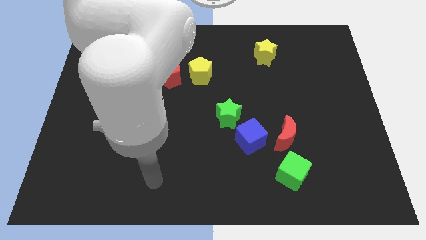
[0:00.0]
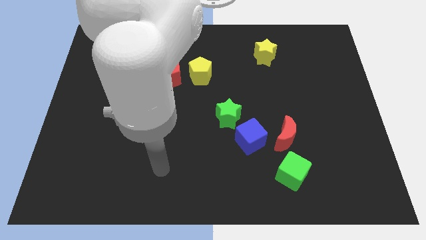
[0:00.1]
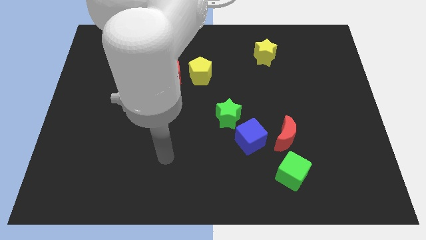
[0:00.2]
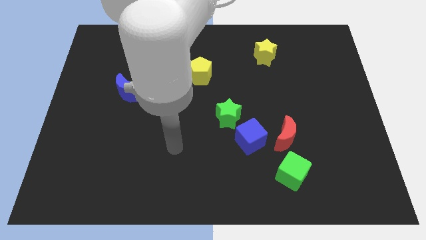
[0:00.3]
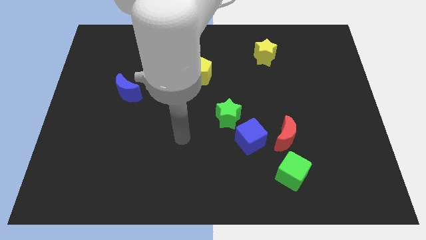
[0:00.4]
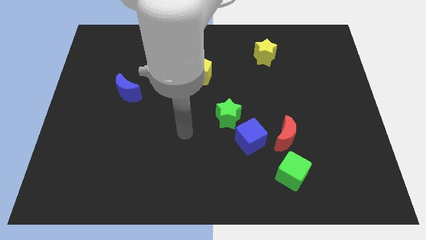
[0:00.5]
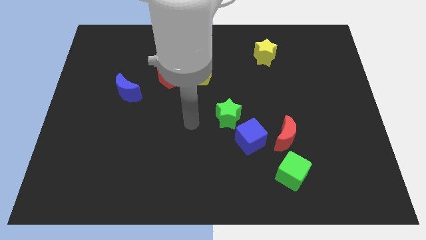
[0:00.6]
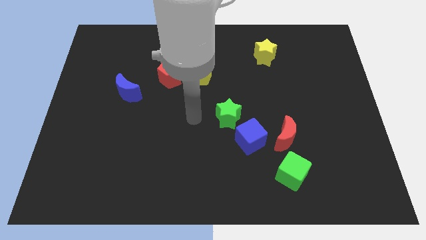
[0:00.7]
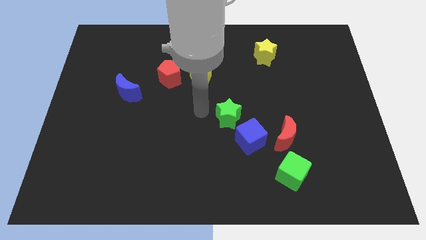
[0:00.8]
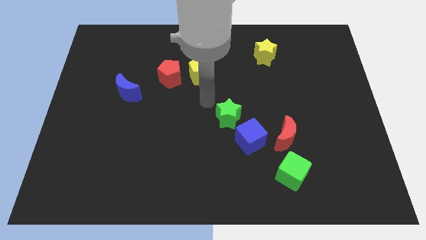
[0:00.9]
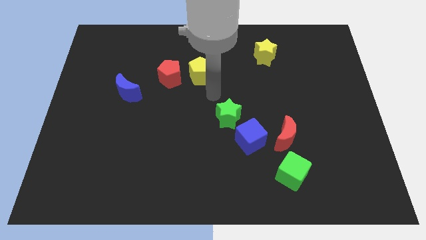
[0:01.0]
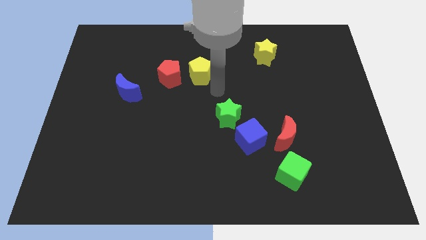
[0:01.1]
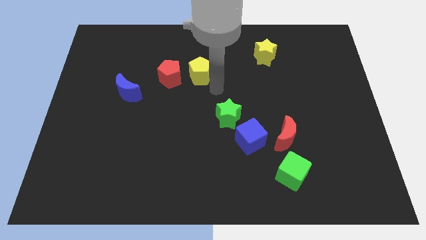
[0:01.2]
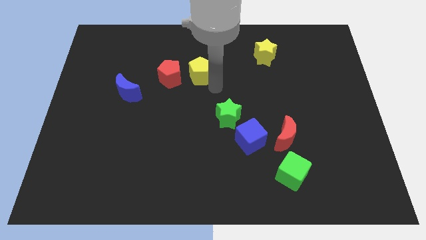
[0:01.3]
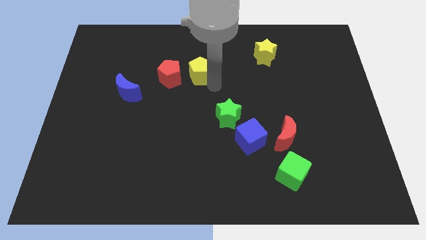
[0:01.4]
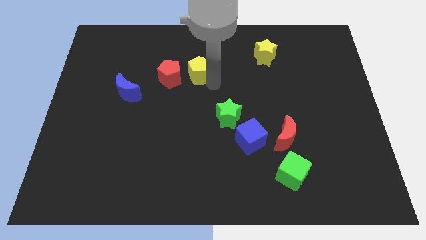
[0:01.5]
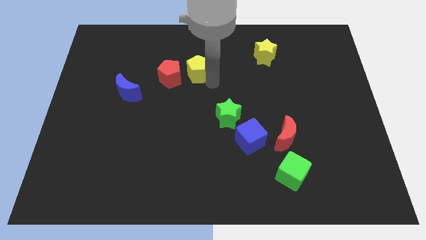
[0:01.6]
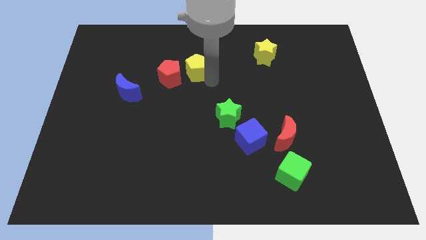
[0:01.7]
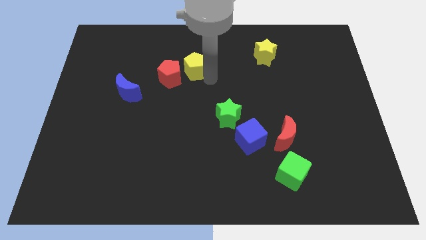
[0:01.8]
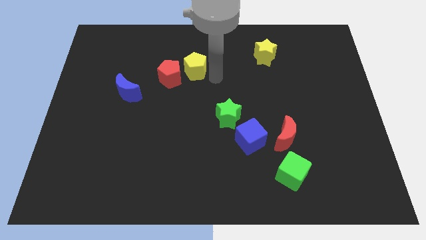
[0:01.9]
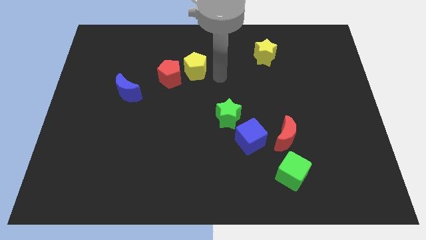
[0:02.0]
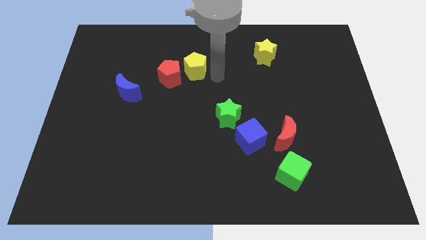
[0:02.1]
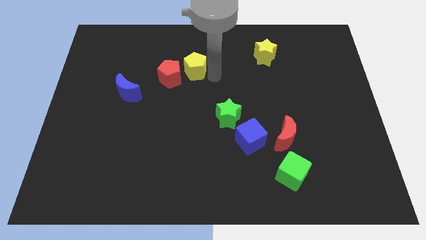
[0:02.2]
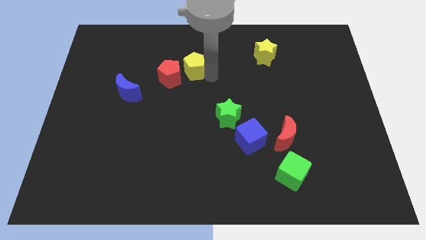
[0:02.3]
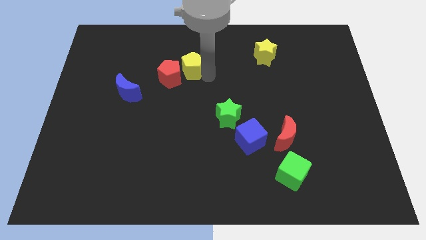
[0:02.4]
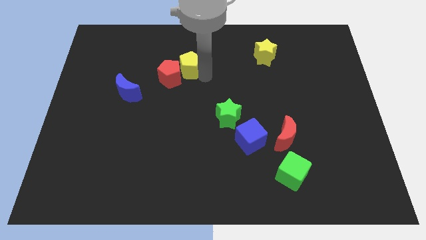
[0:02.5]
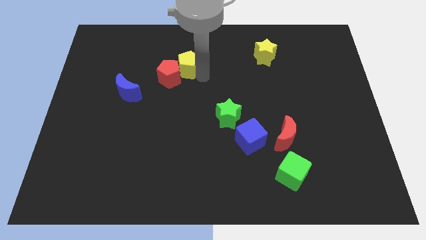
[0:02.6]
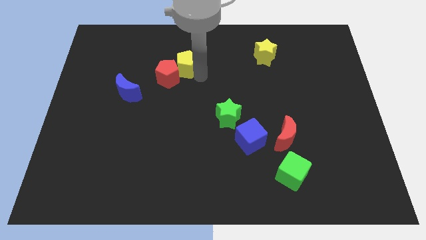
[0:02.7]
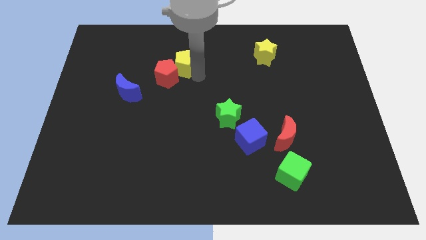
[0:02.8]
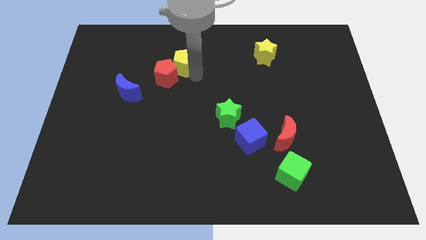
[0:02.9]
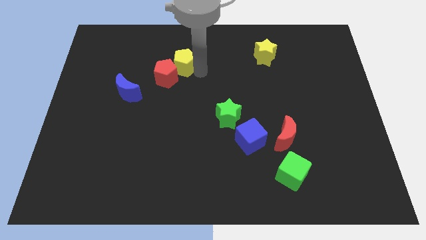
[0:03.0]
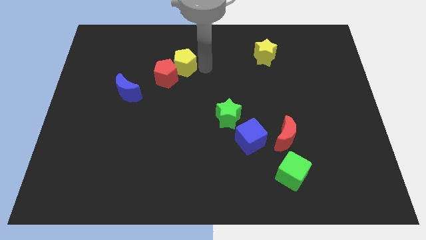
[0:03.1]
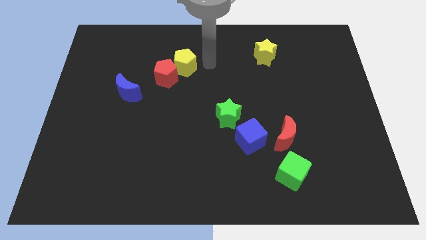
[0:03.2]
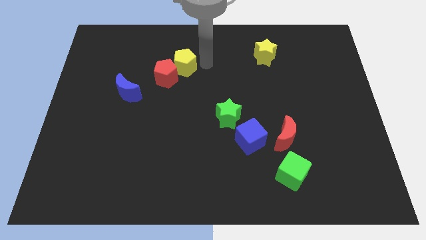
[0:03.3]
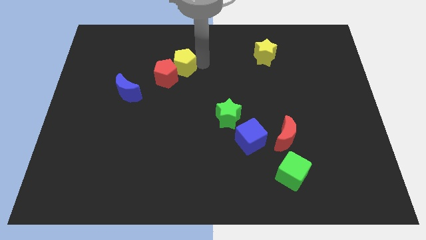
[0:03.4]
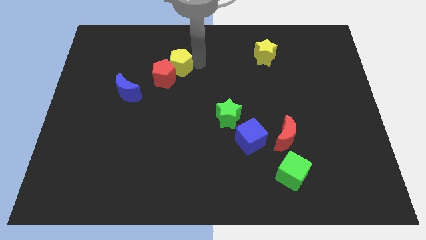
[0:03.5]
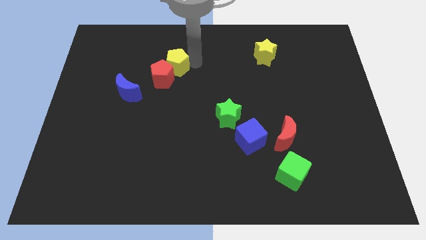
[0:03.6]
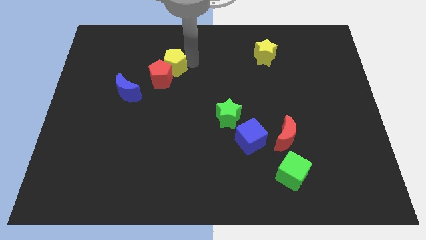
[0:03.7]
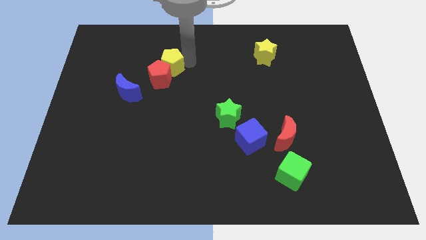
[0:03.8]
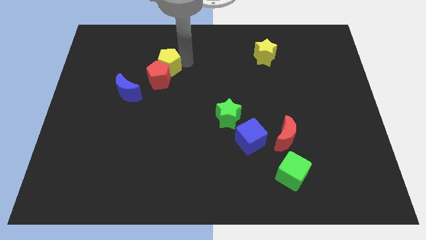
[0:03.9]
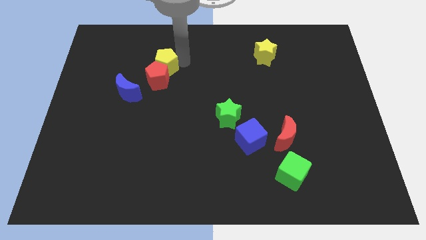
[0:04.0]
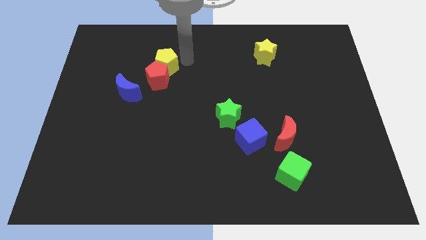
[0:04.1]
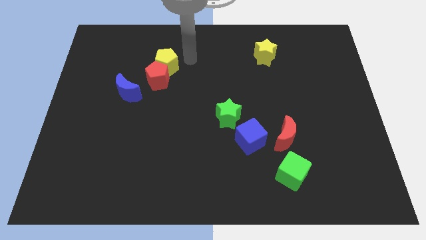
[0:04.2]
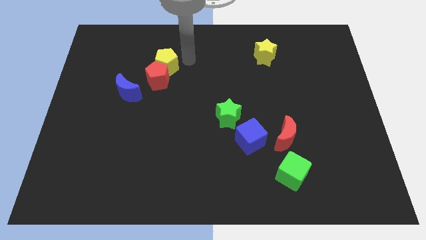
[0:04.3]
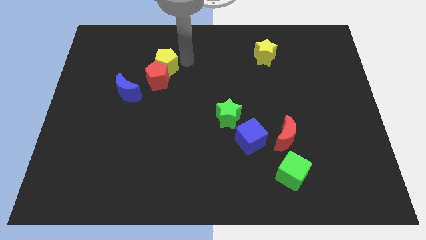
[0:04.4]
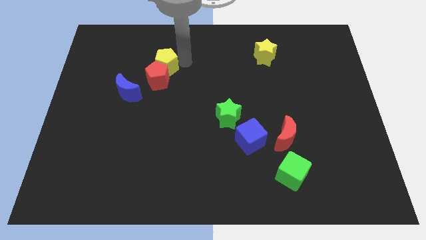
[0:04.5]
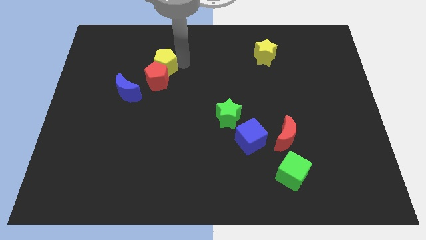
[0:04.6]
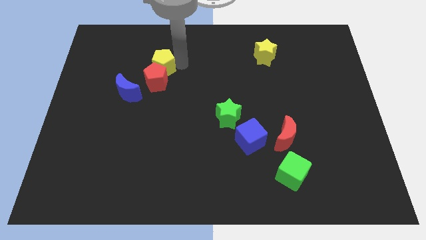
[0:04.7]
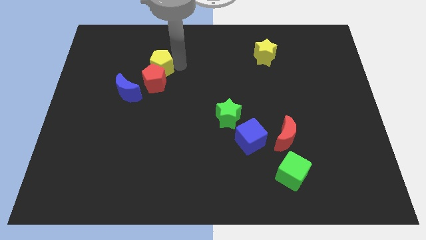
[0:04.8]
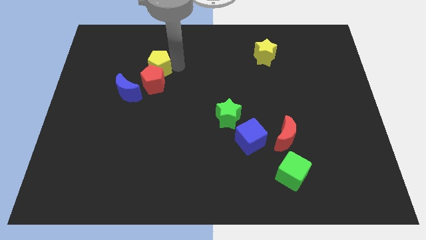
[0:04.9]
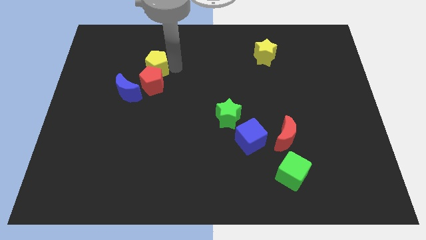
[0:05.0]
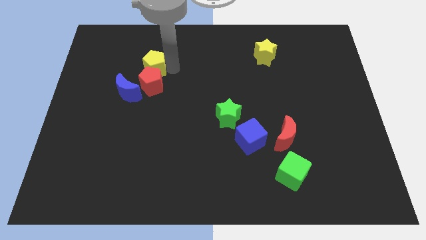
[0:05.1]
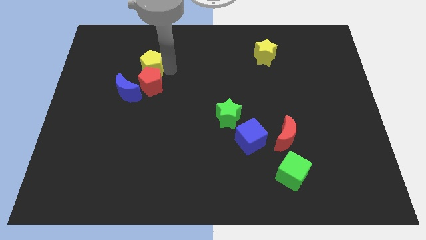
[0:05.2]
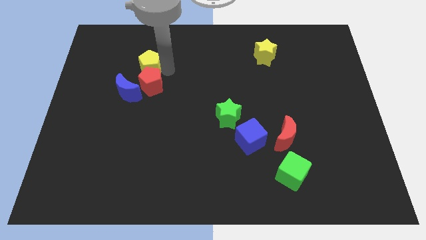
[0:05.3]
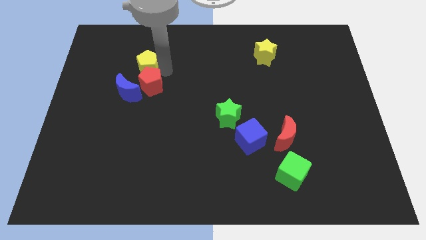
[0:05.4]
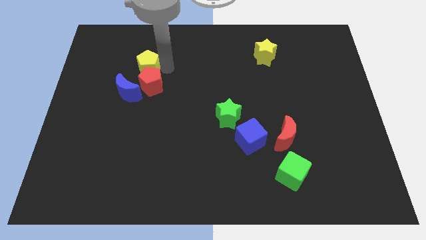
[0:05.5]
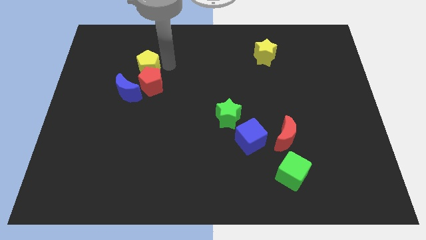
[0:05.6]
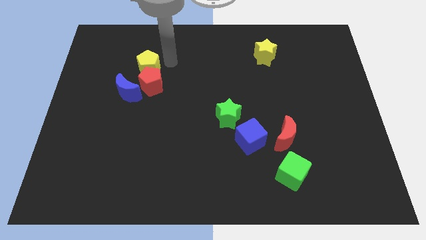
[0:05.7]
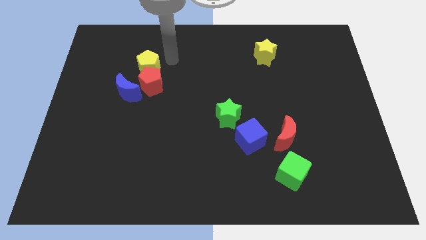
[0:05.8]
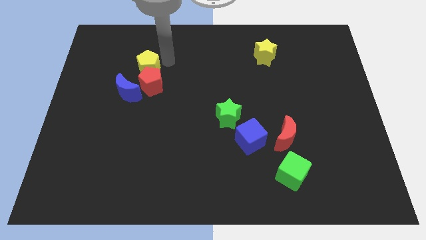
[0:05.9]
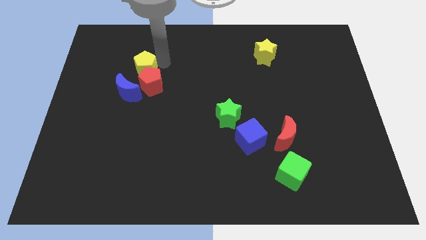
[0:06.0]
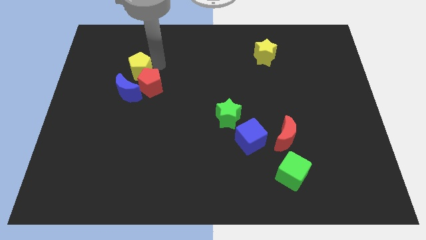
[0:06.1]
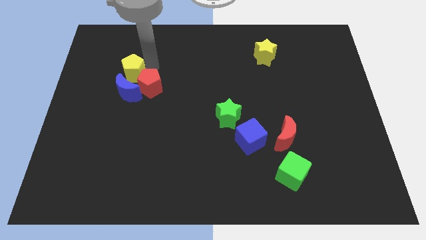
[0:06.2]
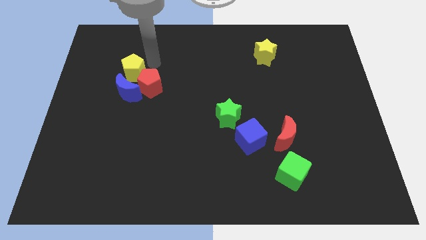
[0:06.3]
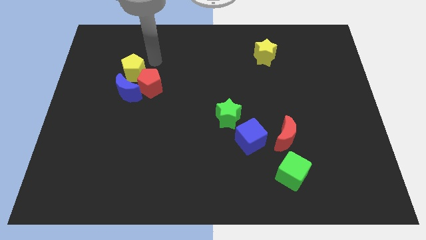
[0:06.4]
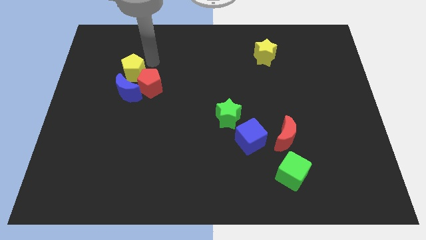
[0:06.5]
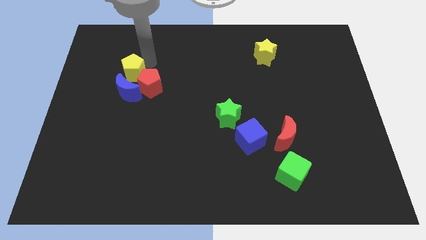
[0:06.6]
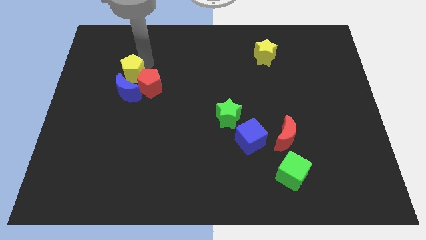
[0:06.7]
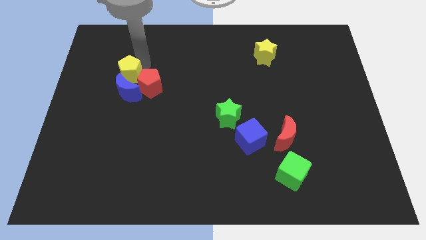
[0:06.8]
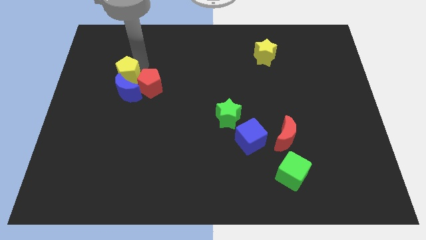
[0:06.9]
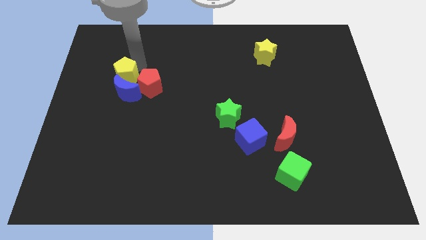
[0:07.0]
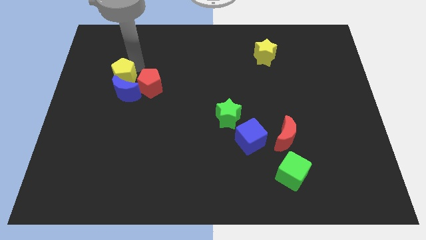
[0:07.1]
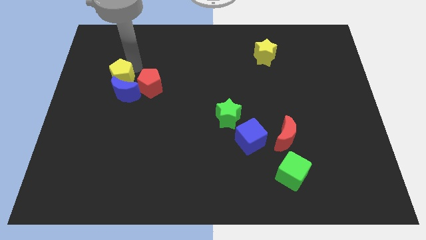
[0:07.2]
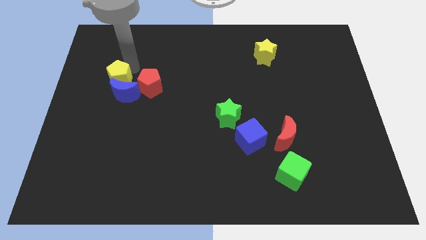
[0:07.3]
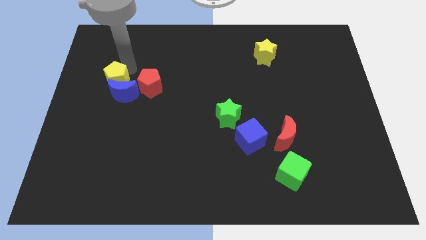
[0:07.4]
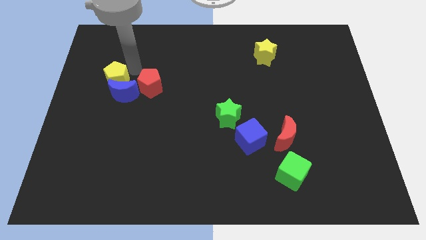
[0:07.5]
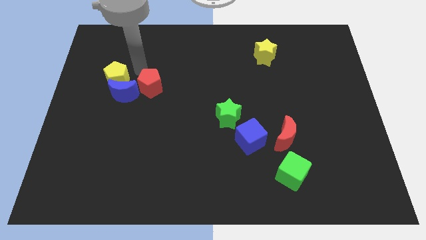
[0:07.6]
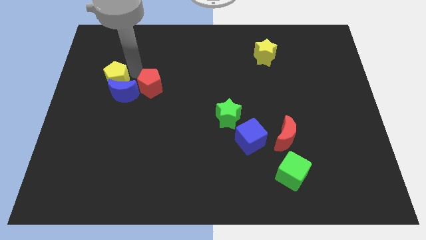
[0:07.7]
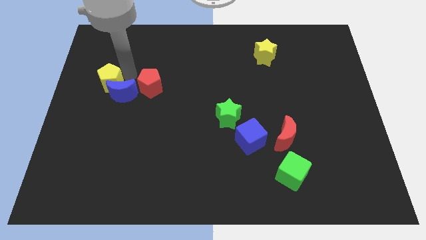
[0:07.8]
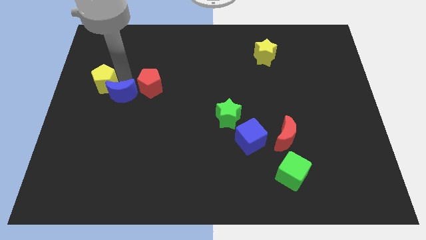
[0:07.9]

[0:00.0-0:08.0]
slide the yellow pentagon to the left side
